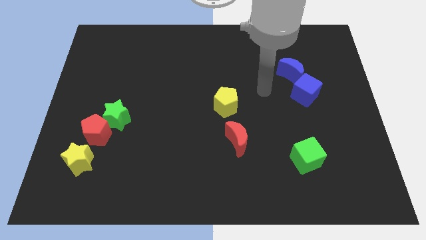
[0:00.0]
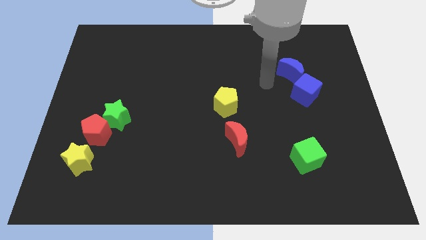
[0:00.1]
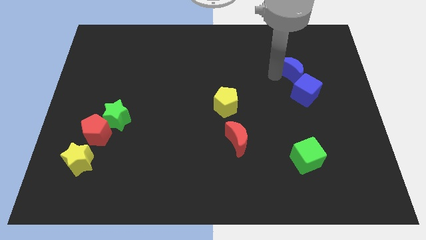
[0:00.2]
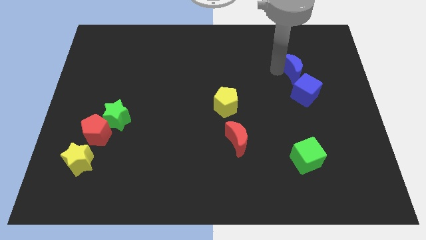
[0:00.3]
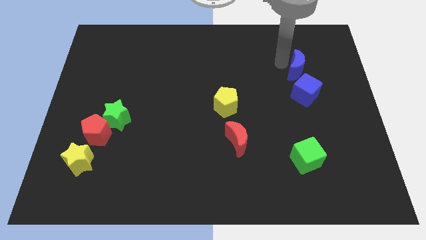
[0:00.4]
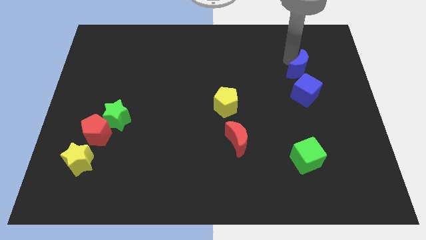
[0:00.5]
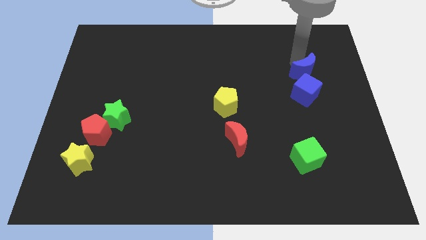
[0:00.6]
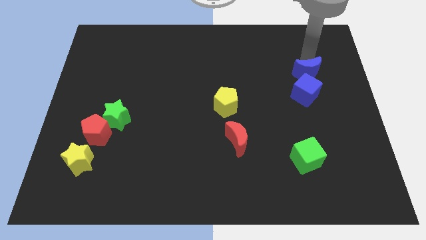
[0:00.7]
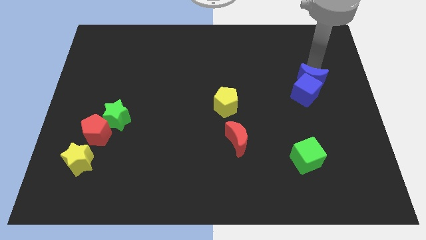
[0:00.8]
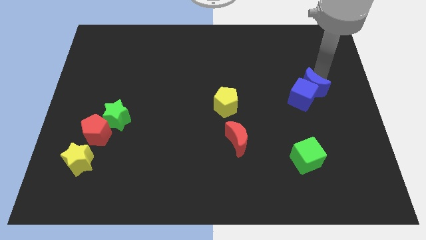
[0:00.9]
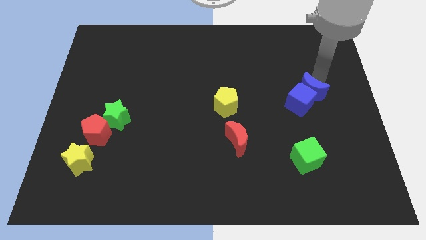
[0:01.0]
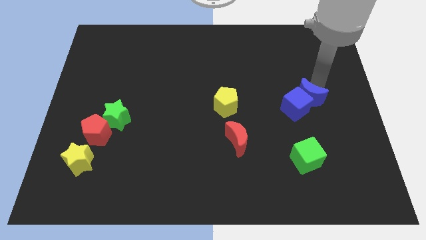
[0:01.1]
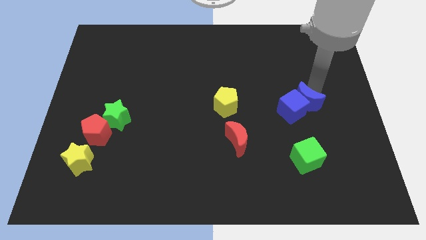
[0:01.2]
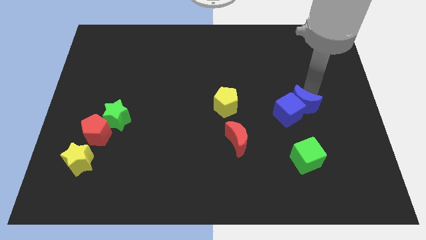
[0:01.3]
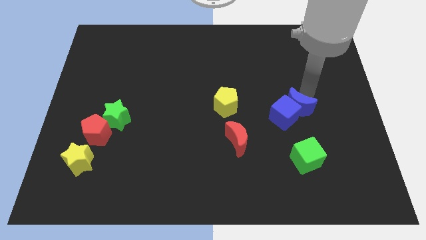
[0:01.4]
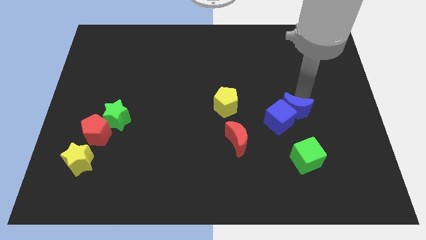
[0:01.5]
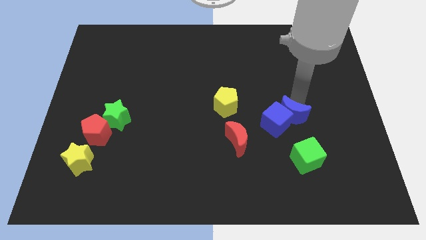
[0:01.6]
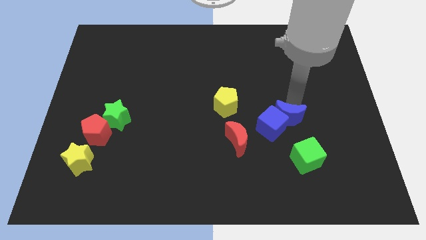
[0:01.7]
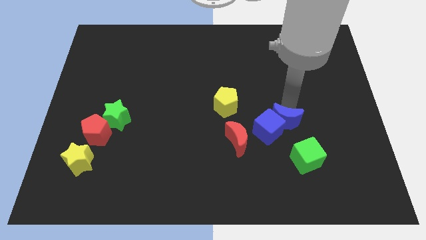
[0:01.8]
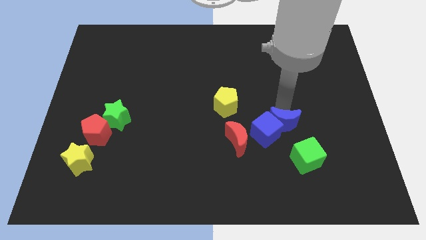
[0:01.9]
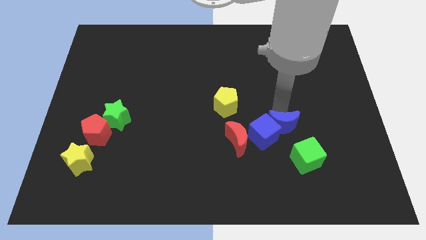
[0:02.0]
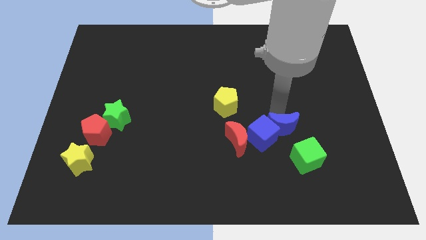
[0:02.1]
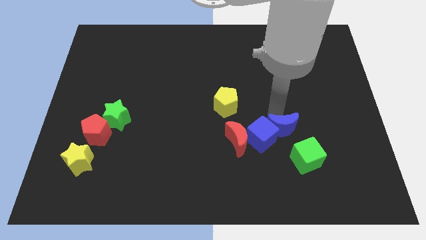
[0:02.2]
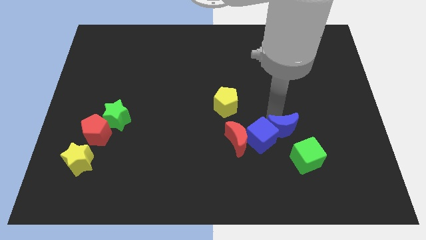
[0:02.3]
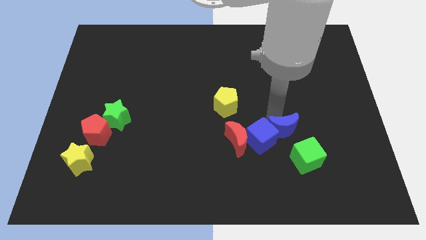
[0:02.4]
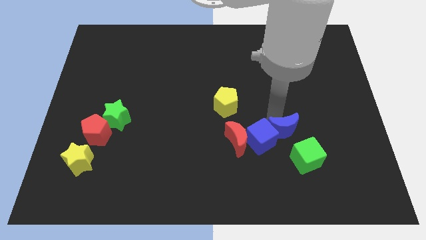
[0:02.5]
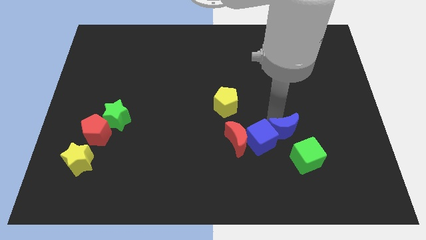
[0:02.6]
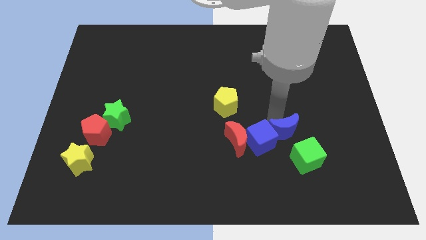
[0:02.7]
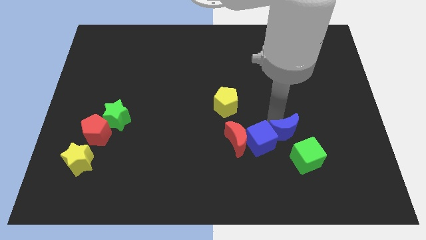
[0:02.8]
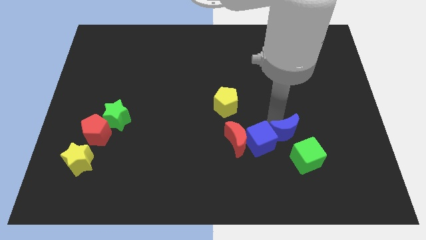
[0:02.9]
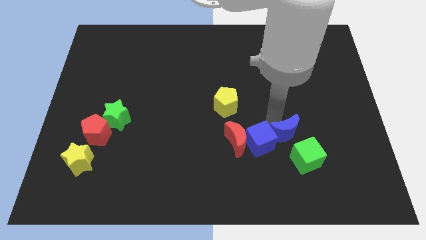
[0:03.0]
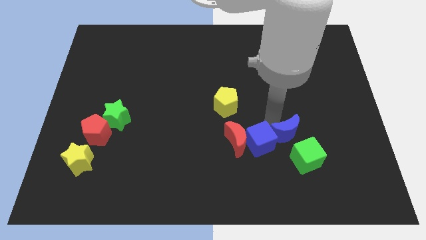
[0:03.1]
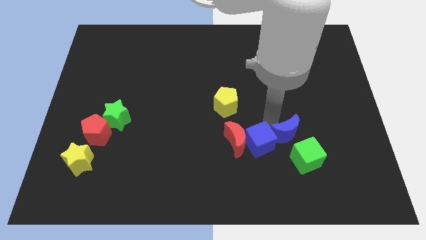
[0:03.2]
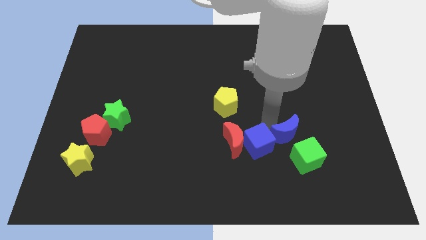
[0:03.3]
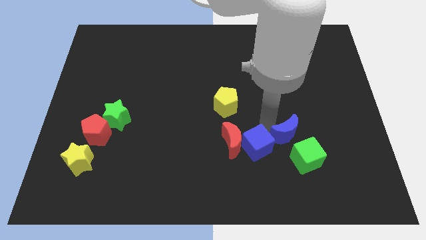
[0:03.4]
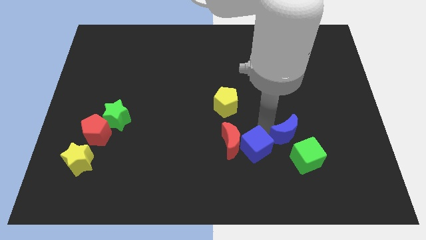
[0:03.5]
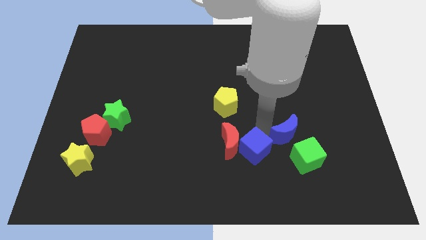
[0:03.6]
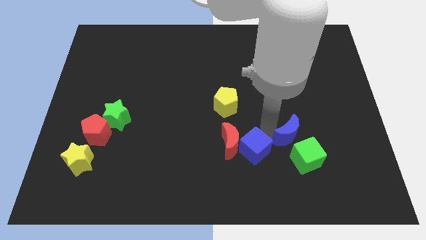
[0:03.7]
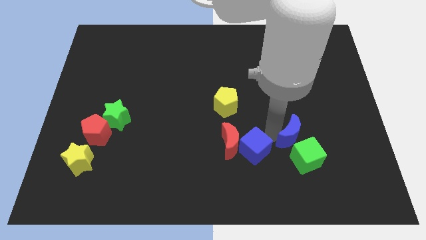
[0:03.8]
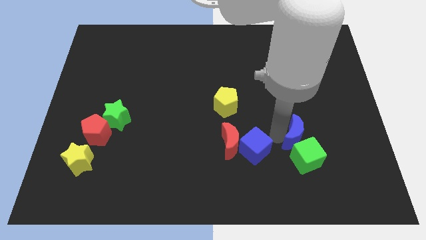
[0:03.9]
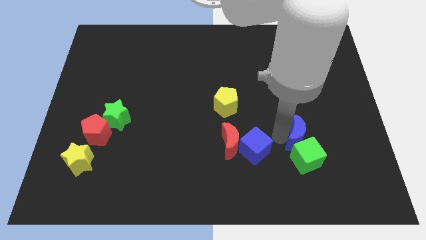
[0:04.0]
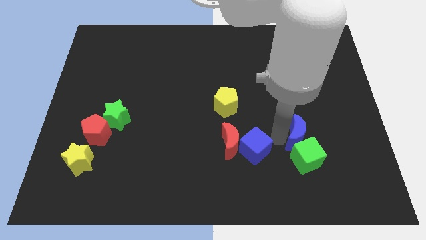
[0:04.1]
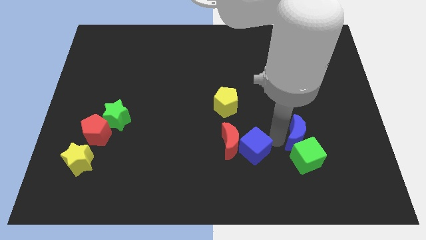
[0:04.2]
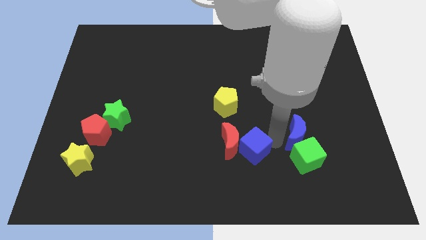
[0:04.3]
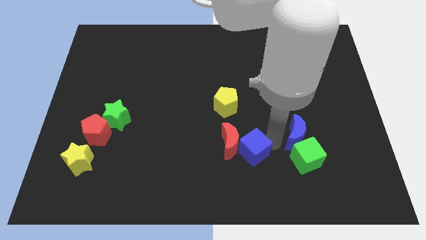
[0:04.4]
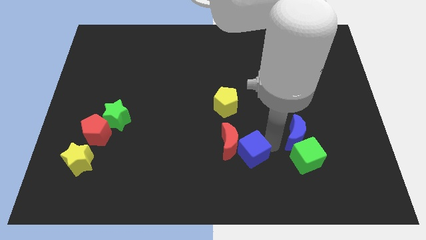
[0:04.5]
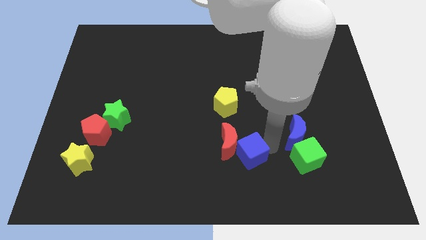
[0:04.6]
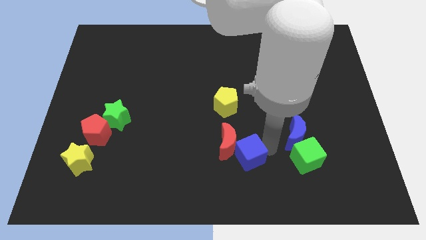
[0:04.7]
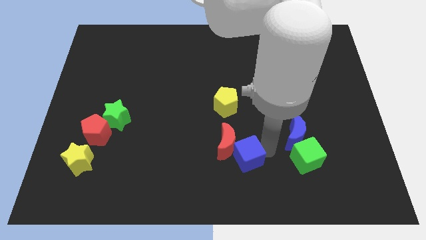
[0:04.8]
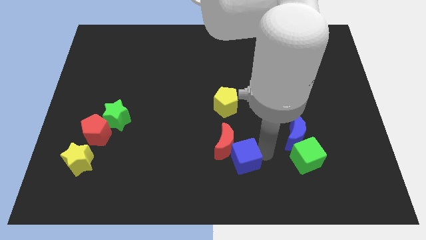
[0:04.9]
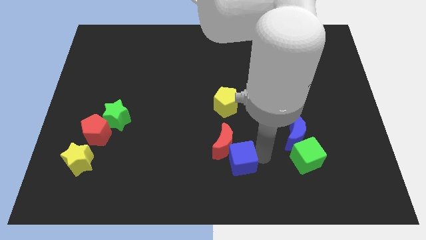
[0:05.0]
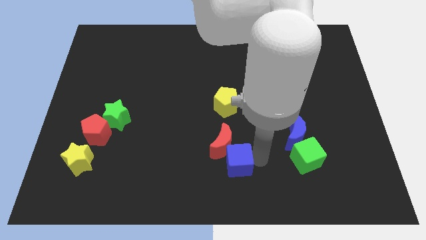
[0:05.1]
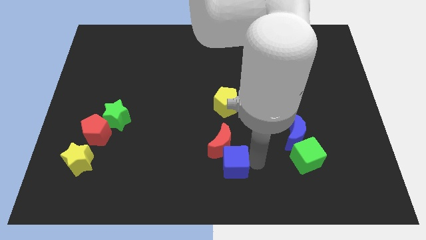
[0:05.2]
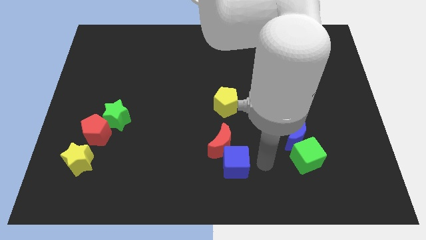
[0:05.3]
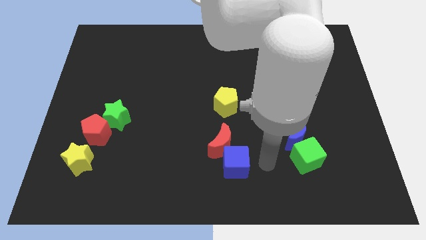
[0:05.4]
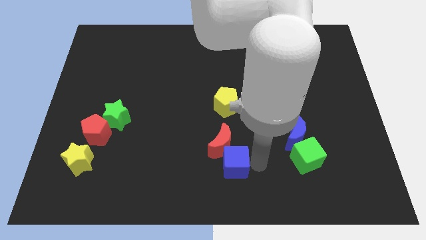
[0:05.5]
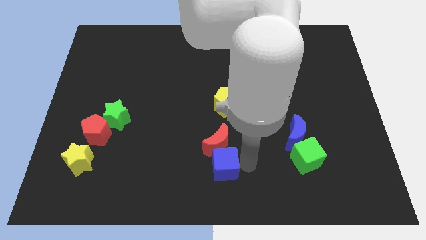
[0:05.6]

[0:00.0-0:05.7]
move the blue cube diagonally down and to the left of the red moon
